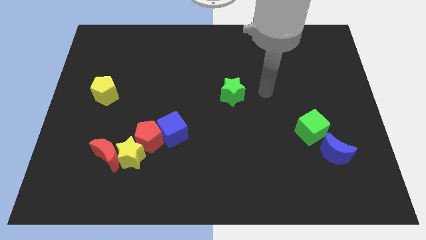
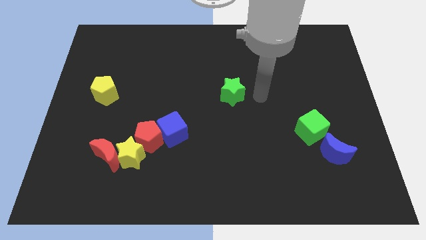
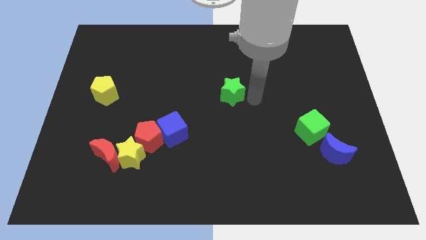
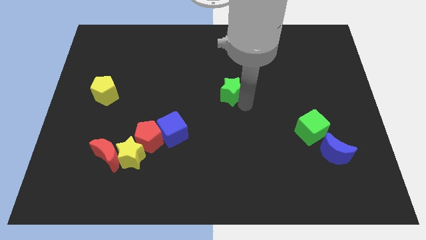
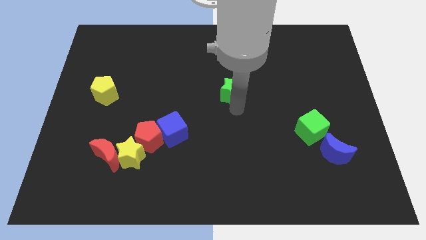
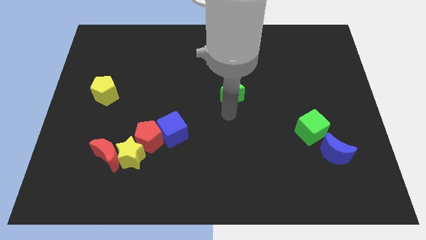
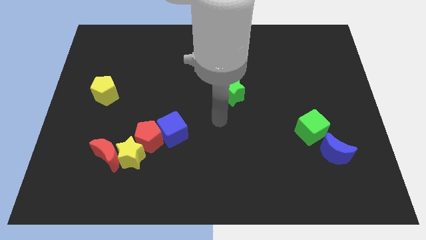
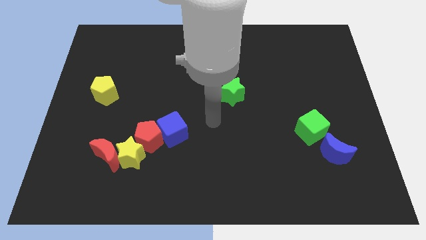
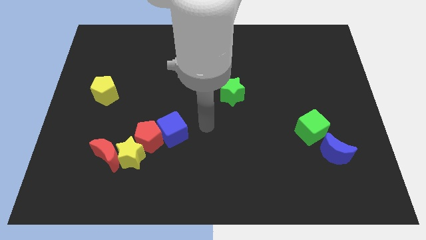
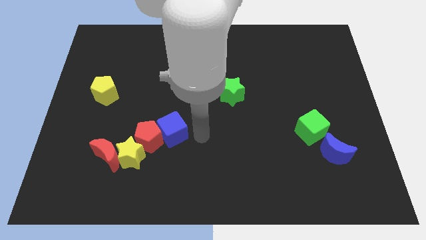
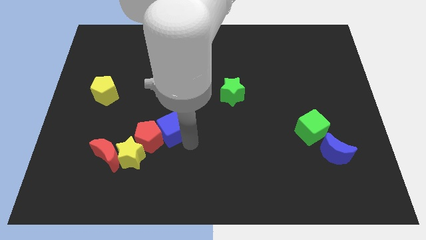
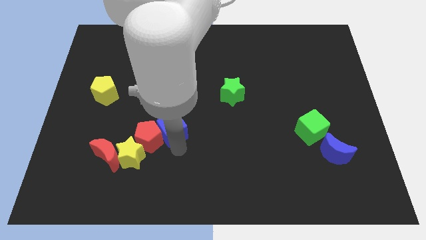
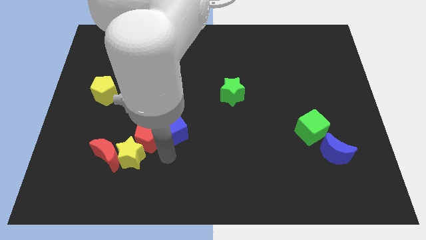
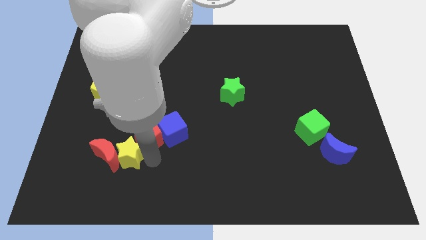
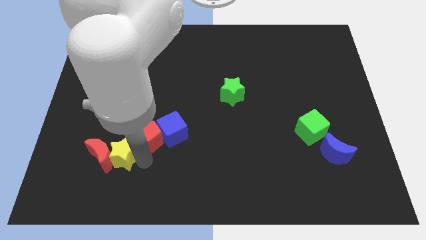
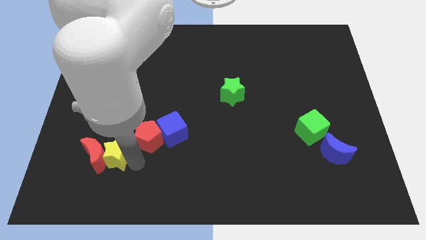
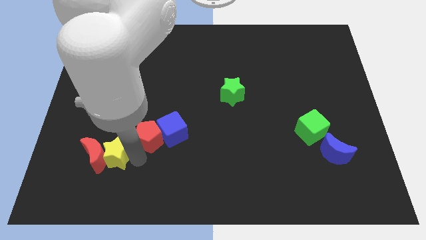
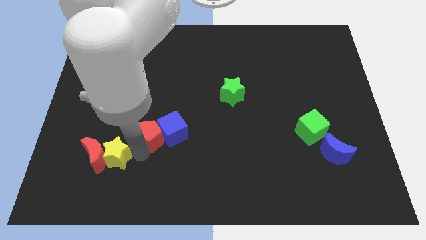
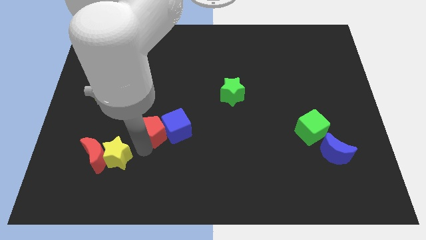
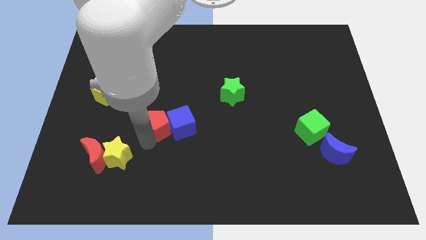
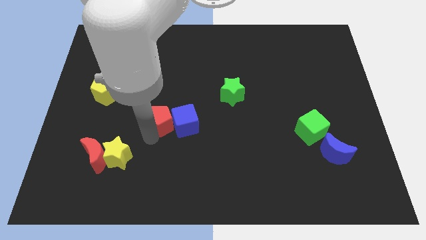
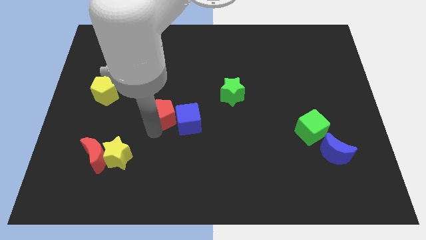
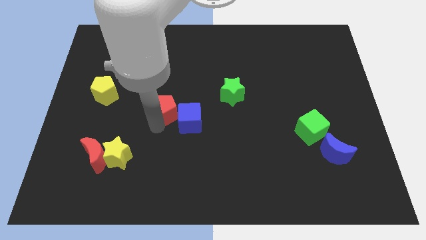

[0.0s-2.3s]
separate the red pentagon from the yellow star, blue cube, and red moon

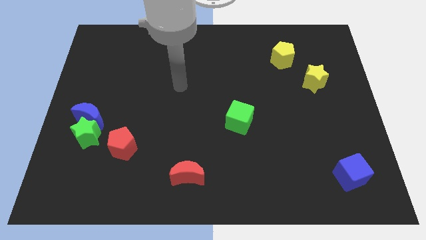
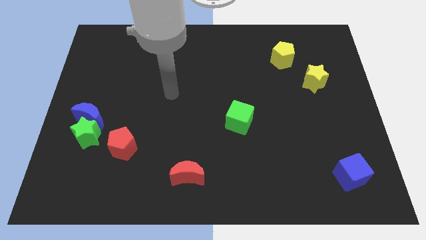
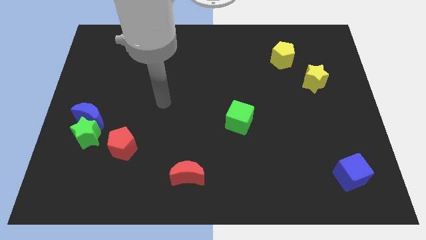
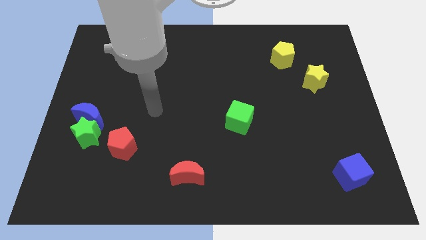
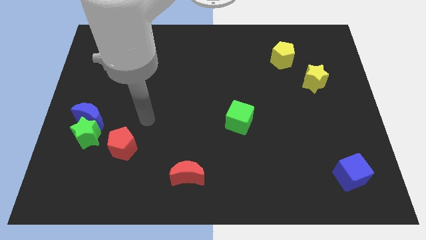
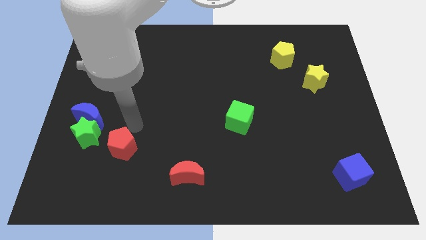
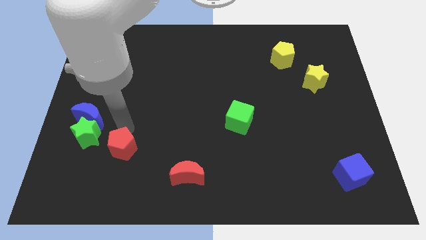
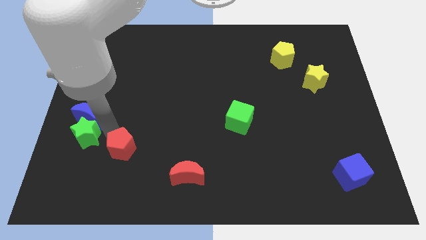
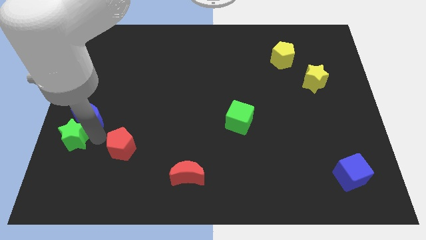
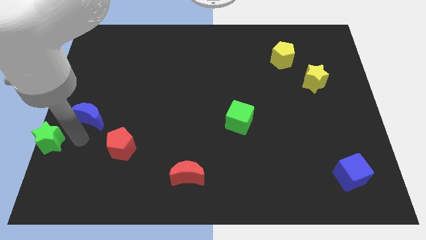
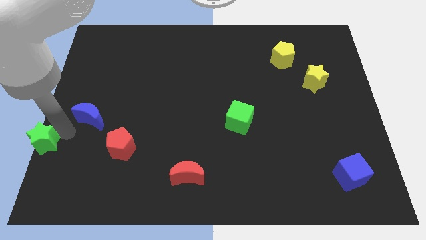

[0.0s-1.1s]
pull the blue moon apart from the green star

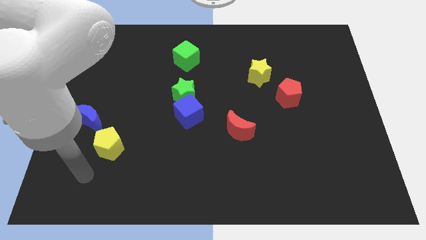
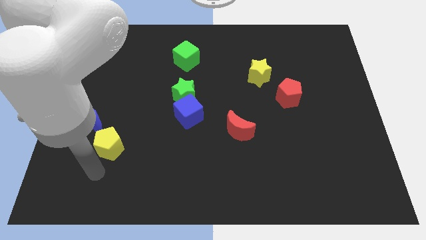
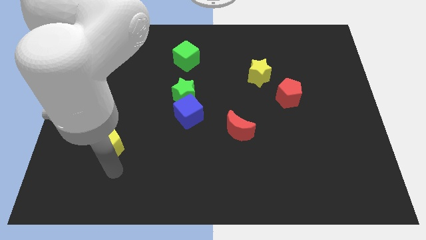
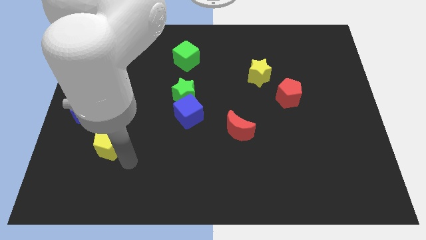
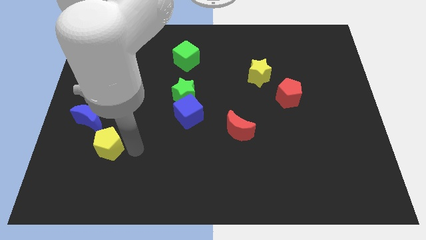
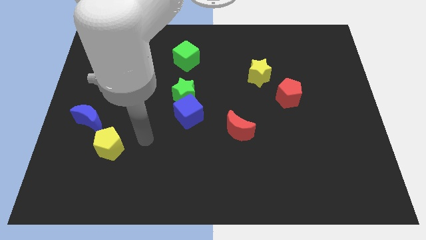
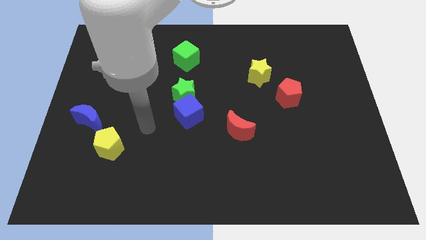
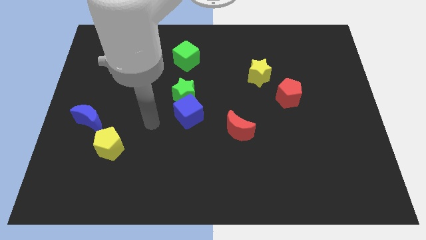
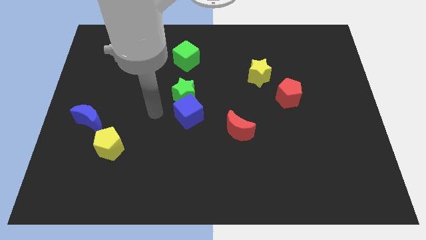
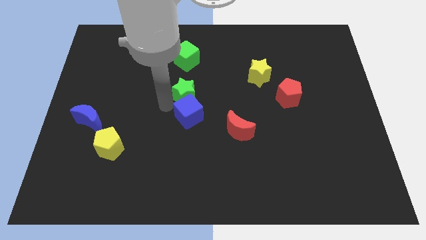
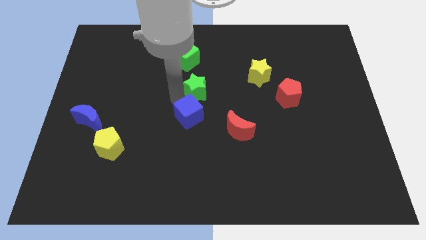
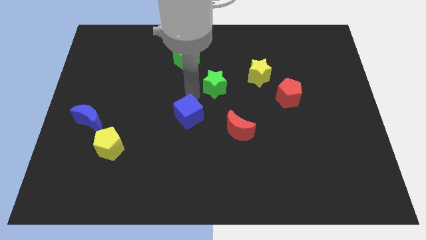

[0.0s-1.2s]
pull the blue cube apart from the green star

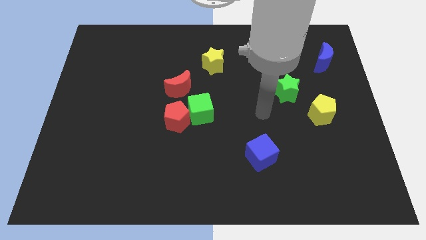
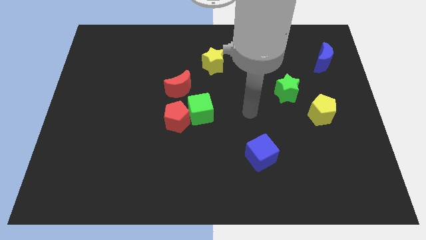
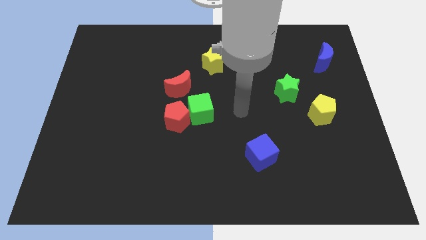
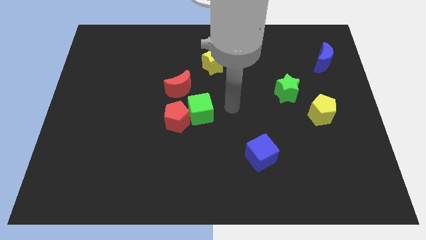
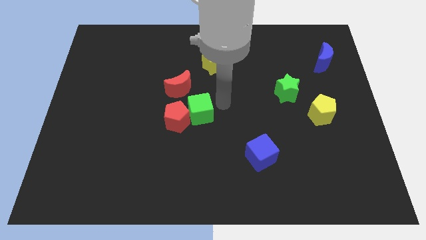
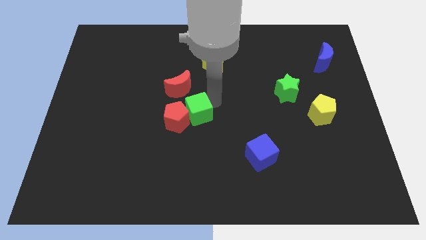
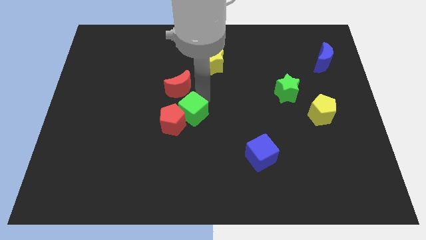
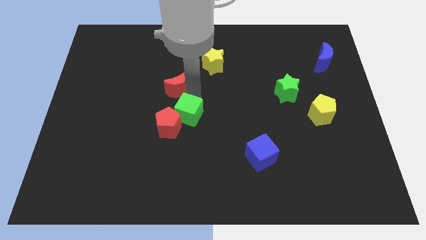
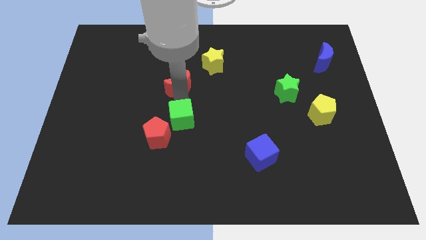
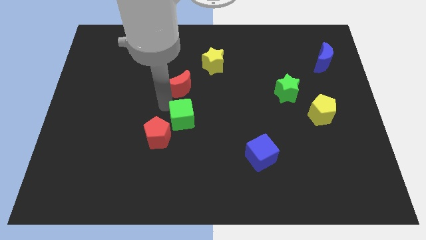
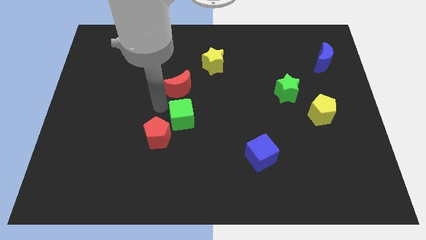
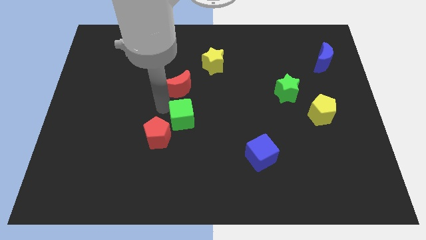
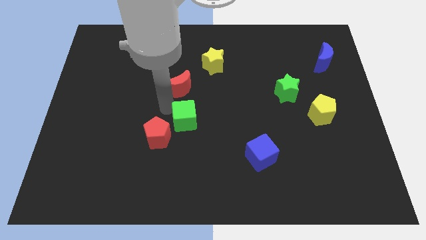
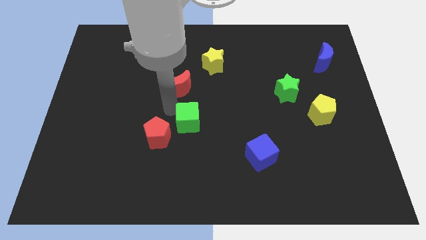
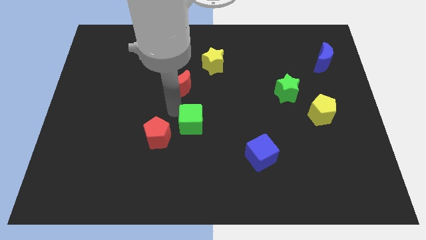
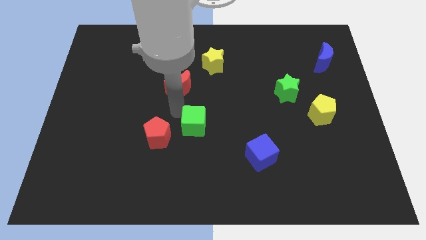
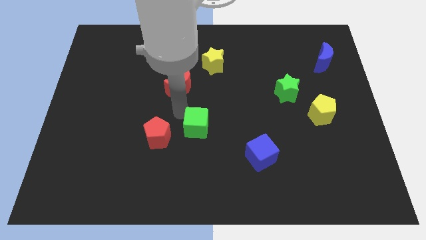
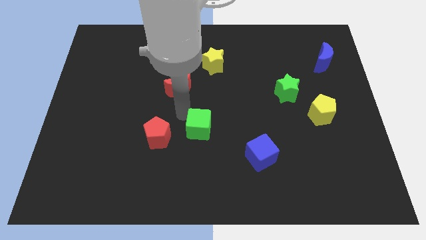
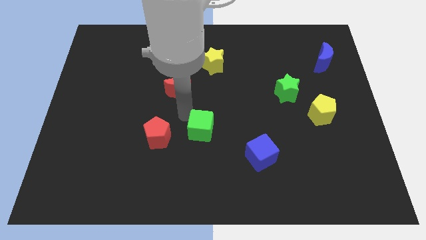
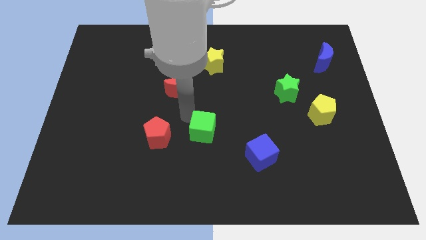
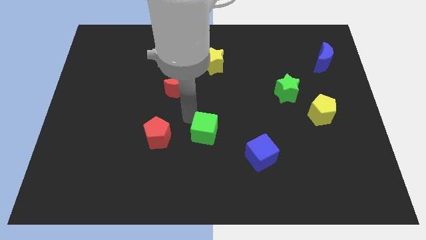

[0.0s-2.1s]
separate the green cube from the red pentagon and red moon

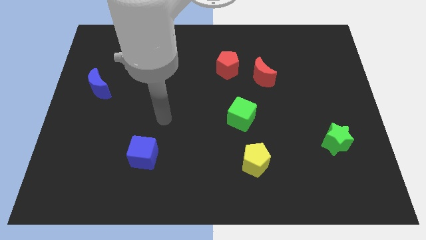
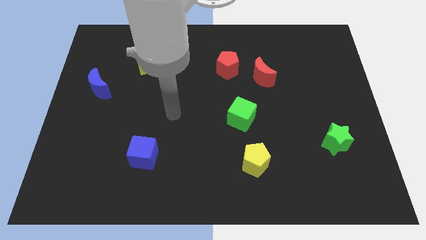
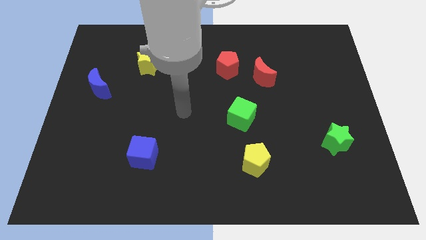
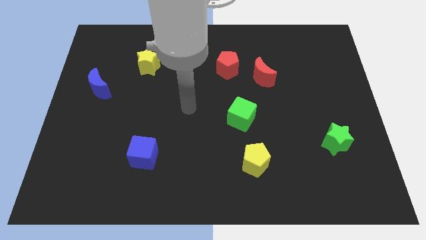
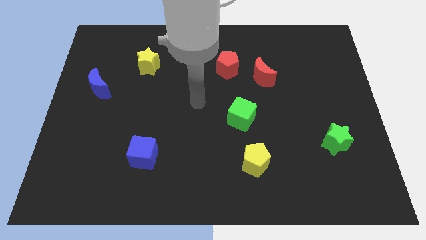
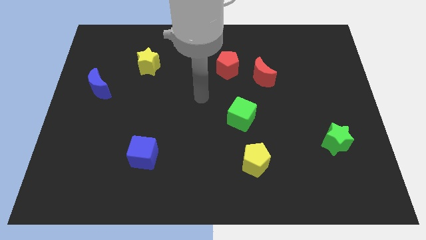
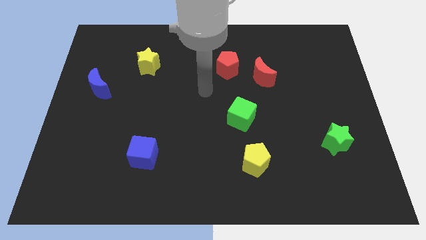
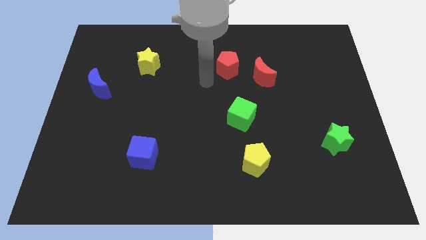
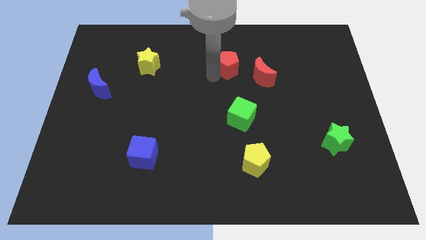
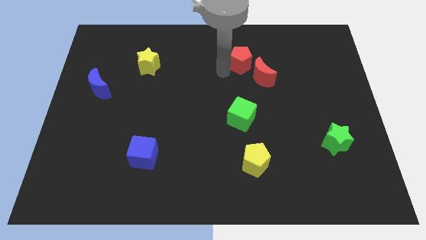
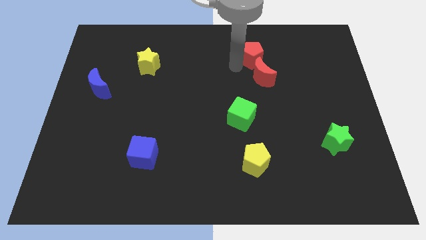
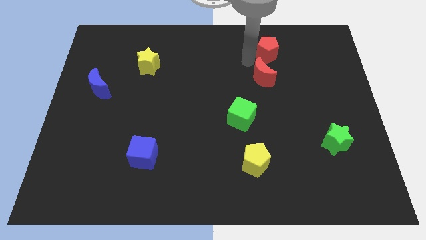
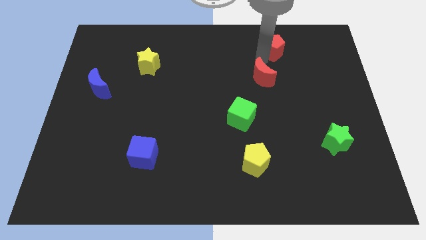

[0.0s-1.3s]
pull the red moon apart from the red pentagon

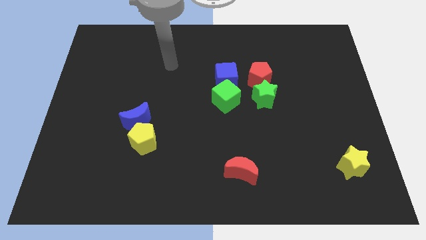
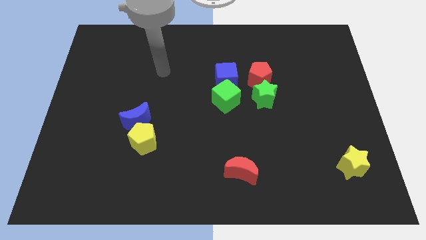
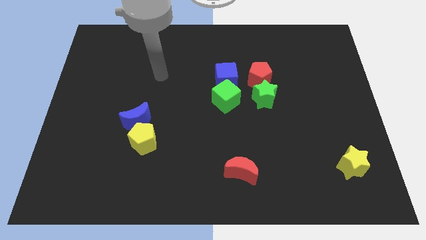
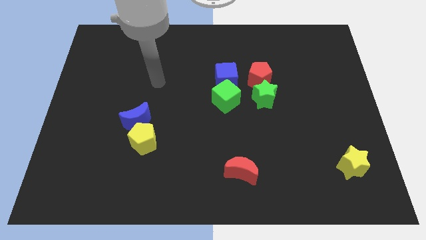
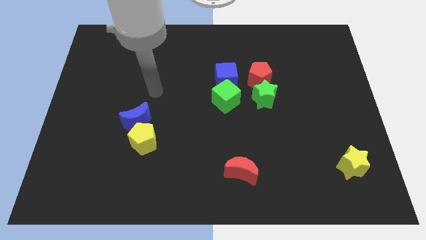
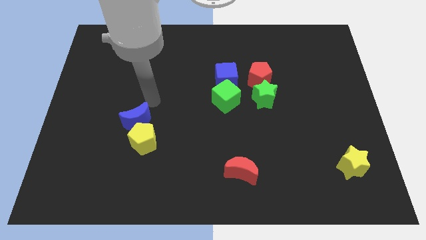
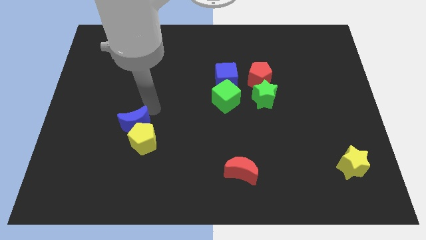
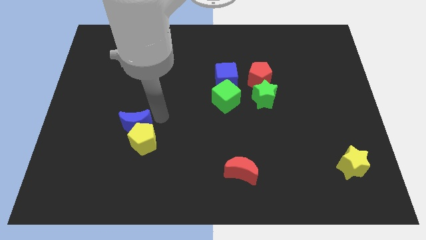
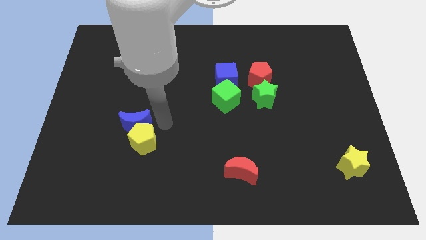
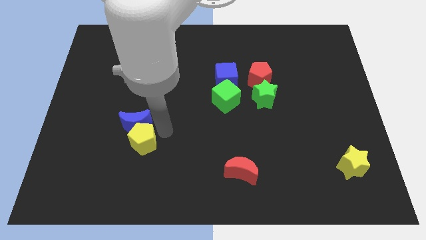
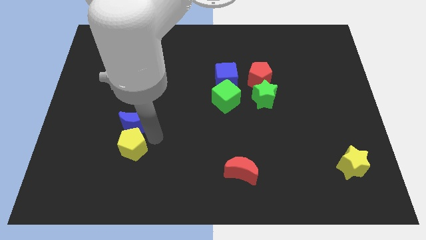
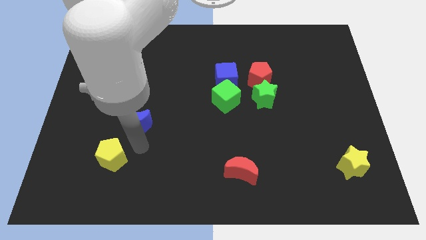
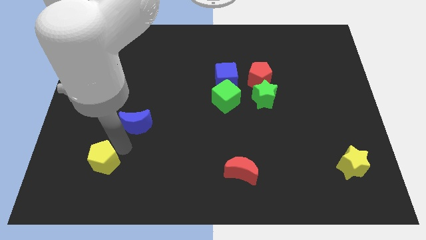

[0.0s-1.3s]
pull the blue moon apart from the yellow pentagon
